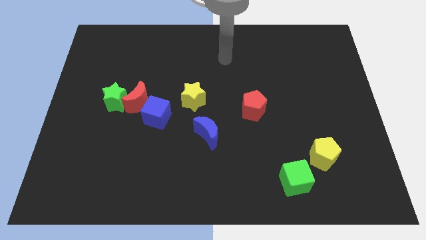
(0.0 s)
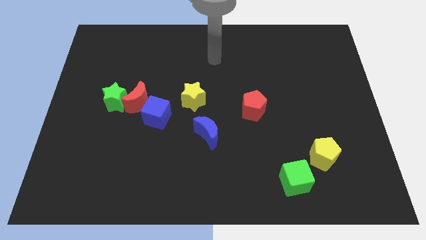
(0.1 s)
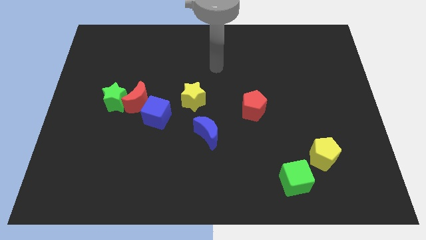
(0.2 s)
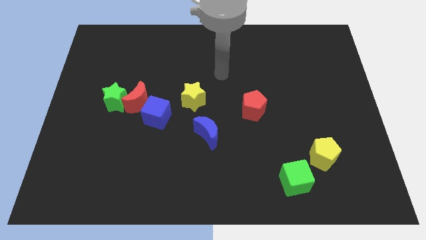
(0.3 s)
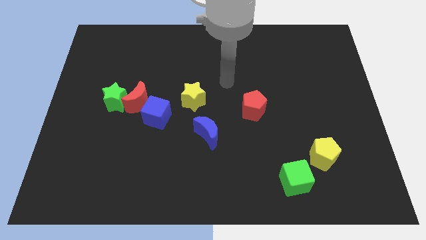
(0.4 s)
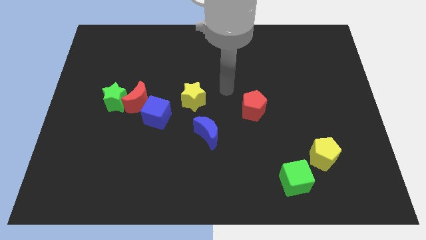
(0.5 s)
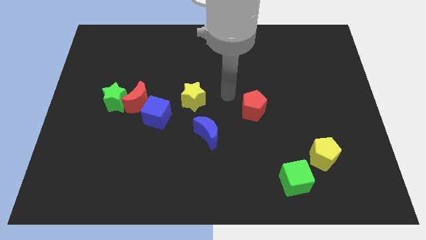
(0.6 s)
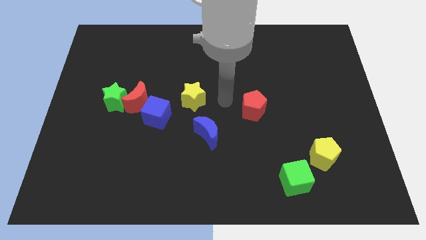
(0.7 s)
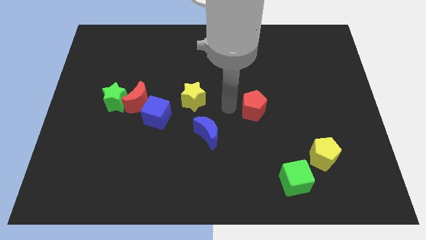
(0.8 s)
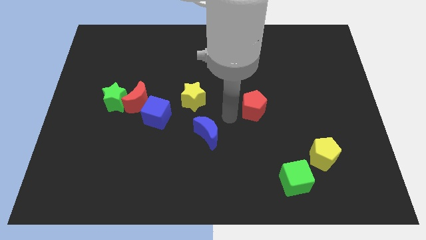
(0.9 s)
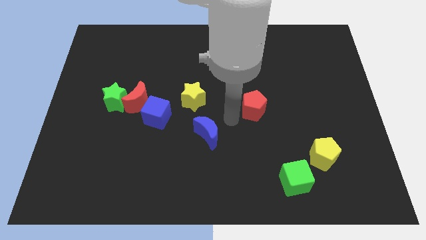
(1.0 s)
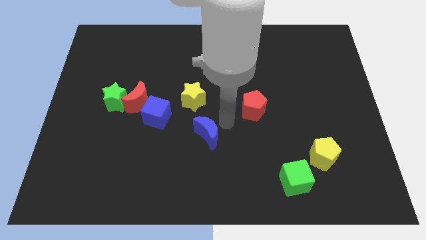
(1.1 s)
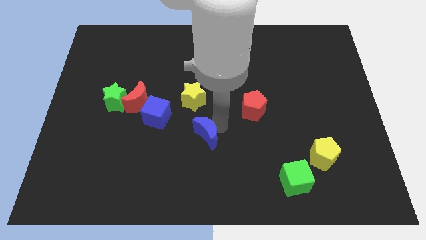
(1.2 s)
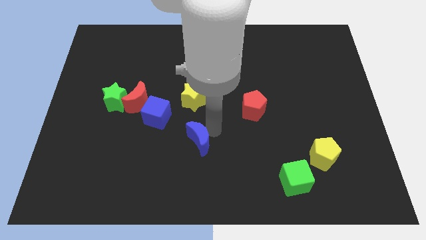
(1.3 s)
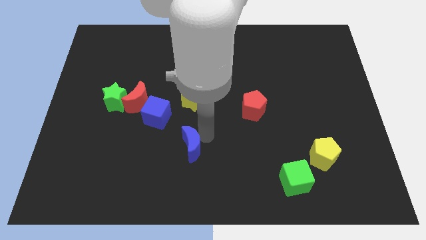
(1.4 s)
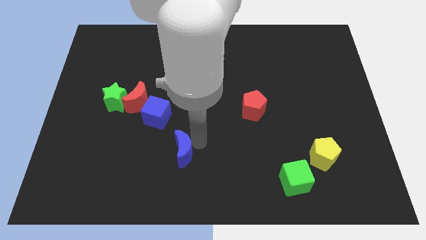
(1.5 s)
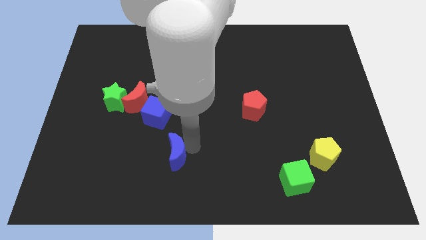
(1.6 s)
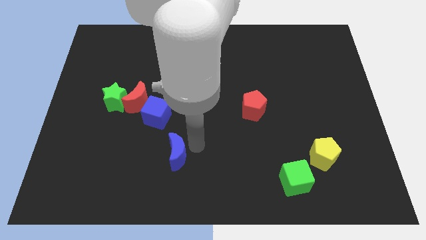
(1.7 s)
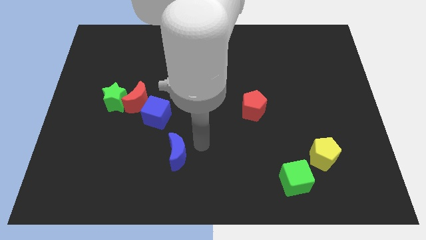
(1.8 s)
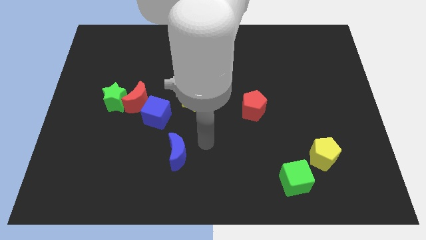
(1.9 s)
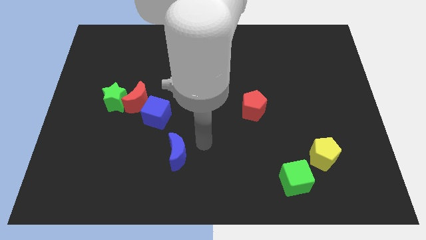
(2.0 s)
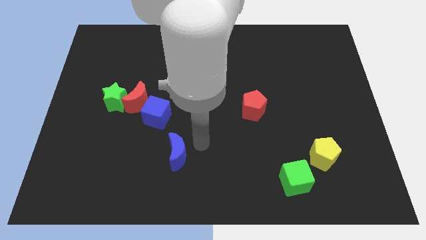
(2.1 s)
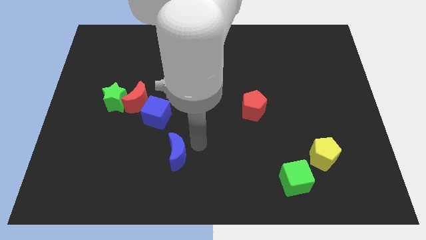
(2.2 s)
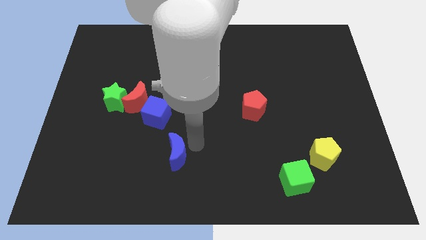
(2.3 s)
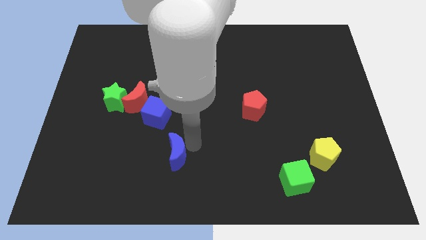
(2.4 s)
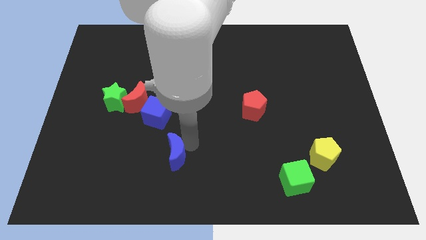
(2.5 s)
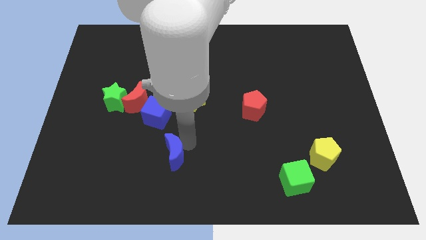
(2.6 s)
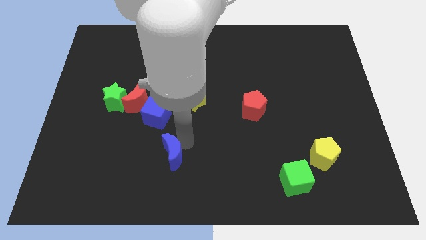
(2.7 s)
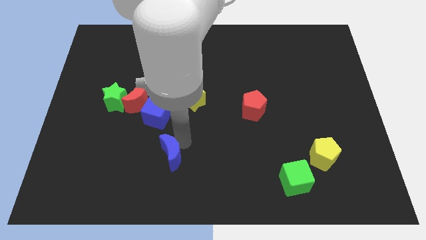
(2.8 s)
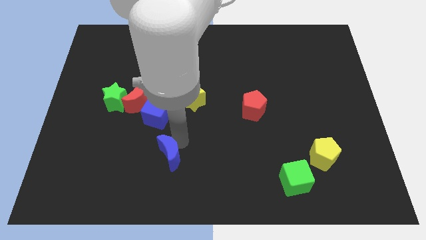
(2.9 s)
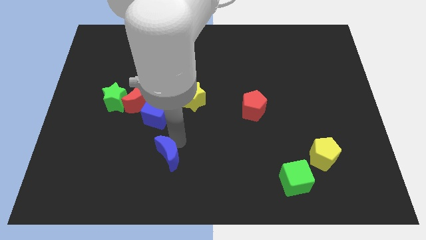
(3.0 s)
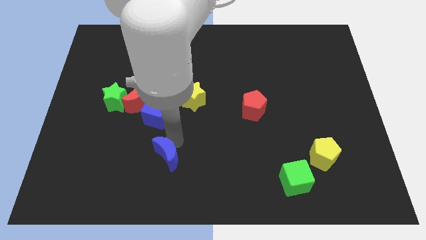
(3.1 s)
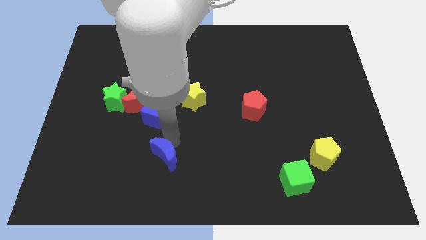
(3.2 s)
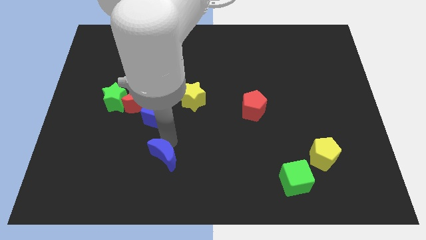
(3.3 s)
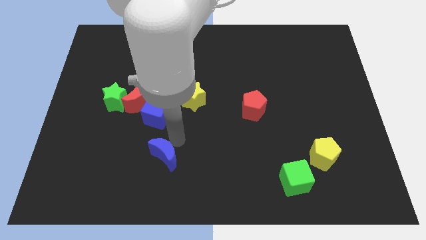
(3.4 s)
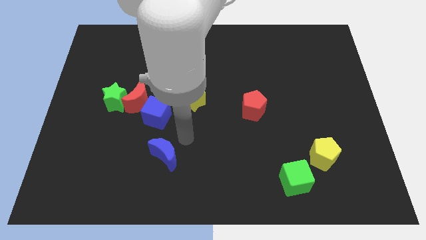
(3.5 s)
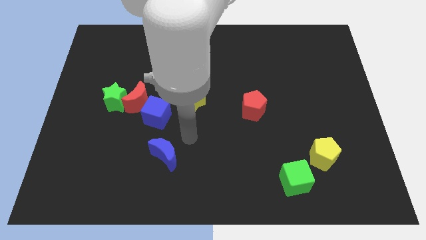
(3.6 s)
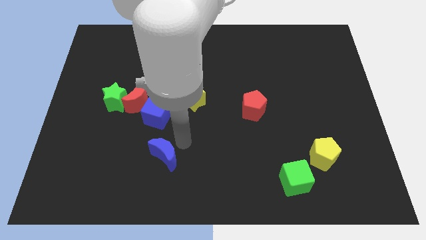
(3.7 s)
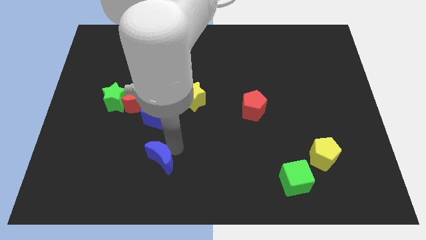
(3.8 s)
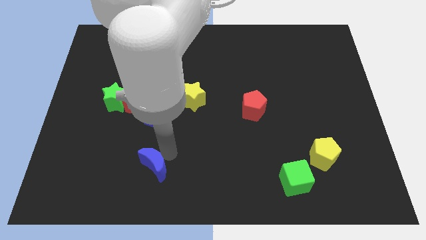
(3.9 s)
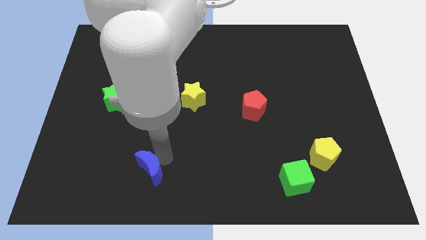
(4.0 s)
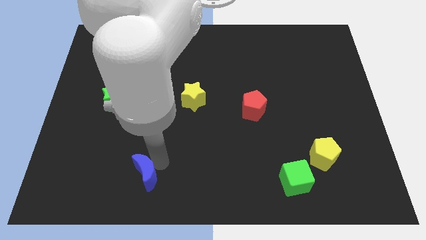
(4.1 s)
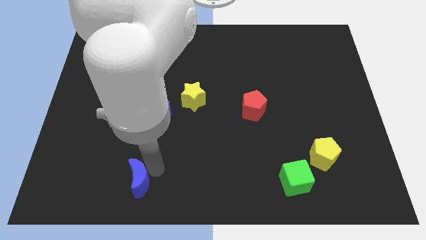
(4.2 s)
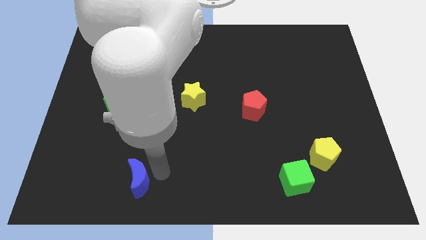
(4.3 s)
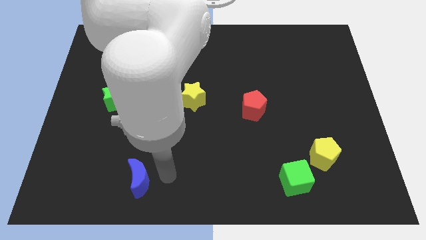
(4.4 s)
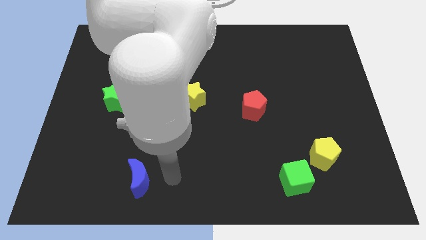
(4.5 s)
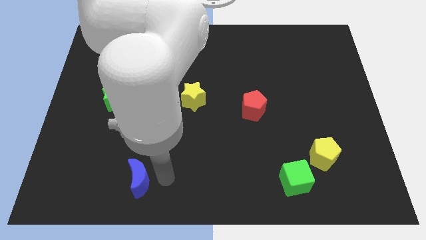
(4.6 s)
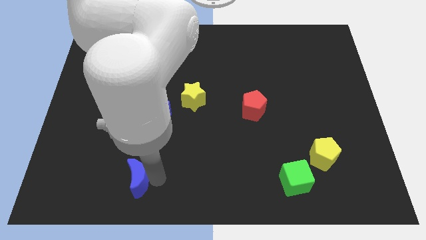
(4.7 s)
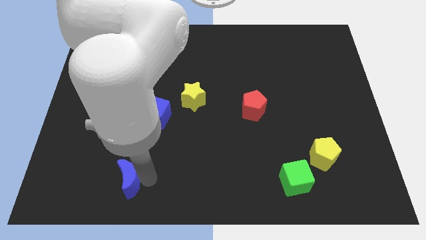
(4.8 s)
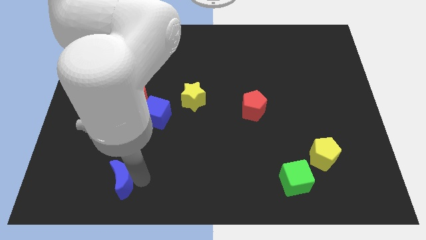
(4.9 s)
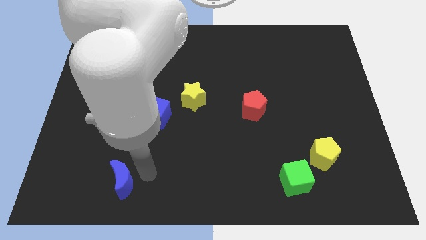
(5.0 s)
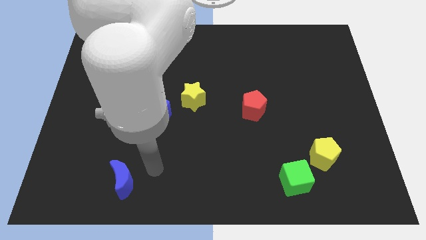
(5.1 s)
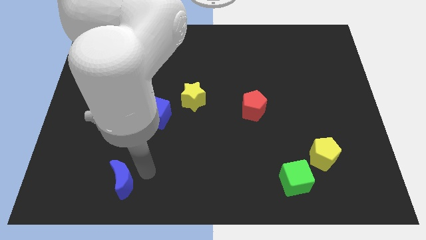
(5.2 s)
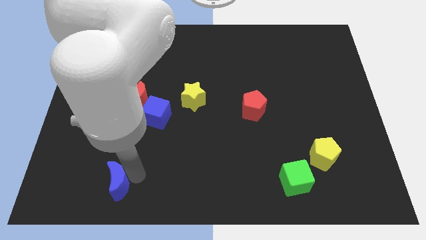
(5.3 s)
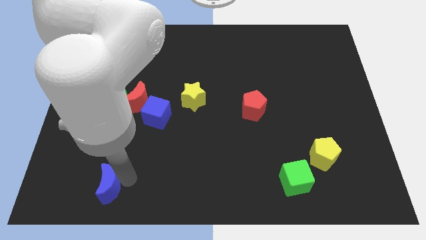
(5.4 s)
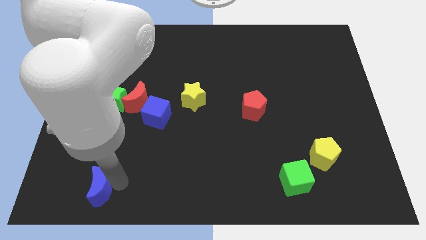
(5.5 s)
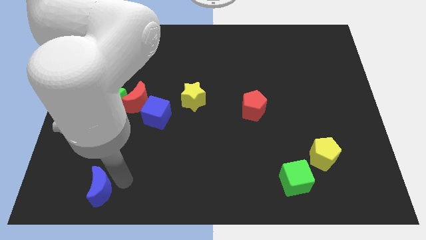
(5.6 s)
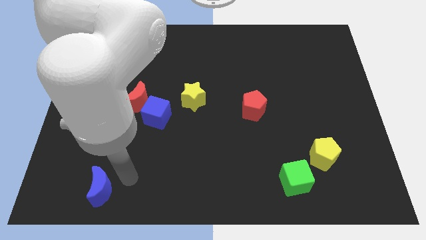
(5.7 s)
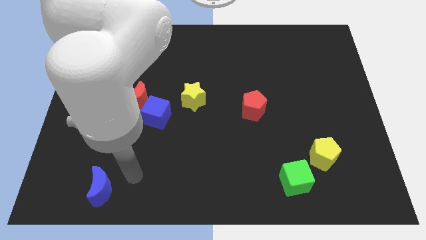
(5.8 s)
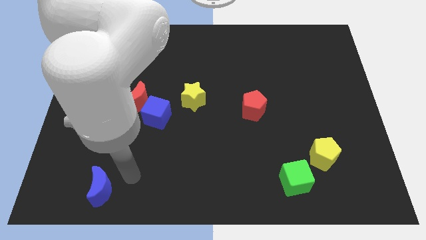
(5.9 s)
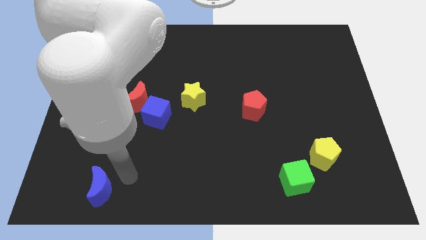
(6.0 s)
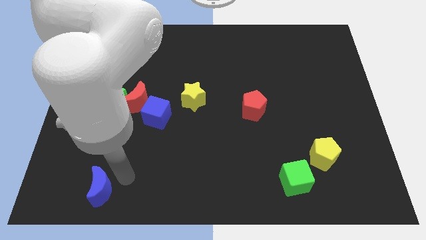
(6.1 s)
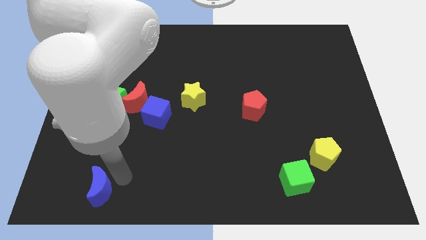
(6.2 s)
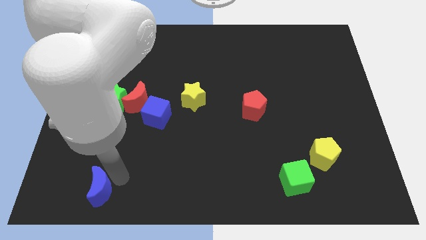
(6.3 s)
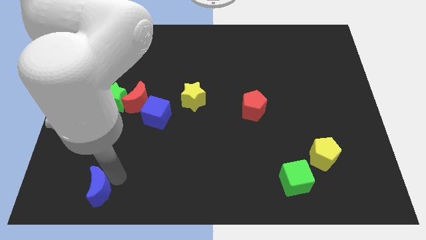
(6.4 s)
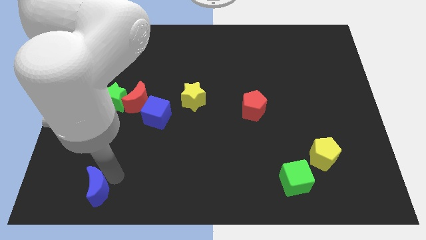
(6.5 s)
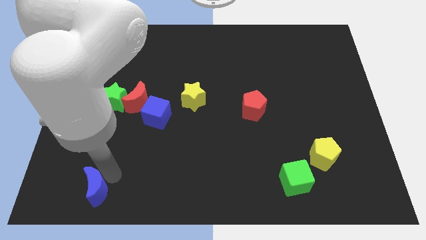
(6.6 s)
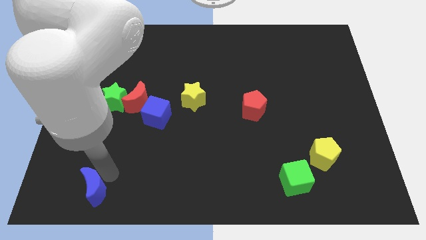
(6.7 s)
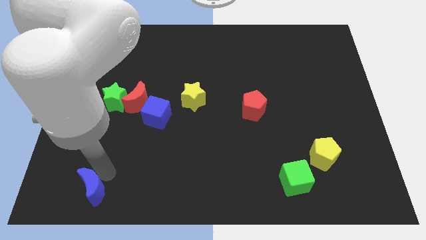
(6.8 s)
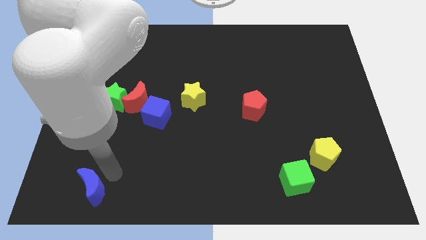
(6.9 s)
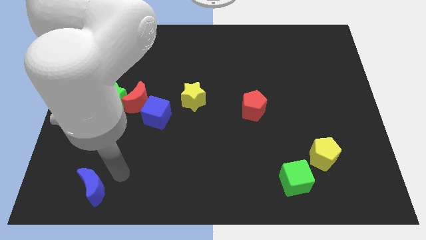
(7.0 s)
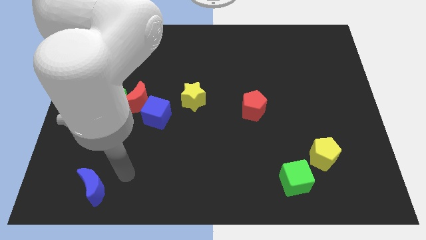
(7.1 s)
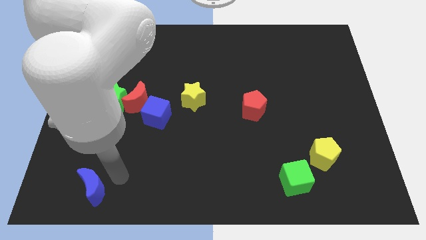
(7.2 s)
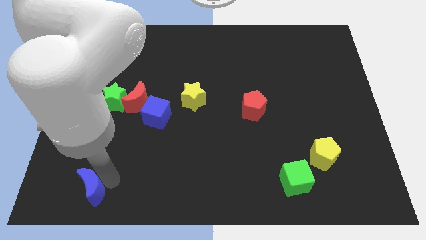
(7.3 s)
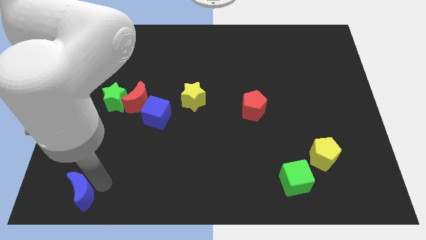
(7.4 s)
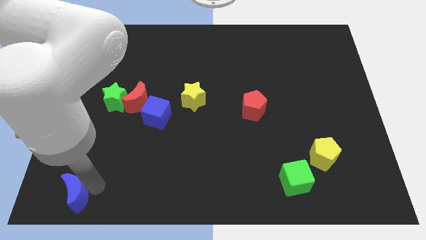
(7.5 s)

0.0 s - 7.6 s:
move the blue moon to the bottom left

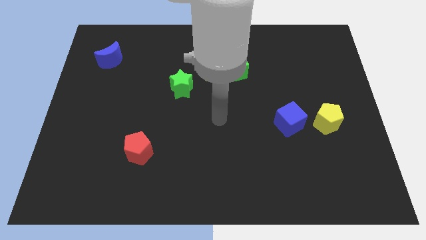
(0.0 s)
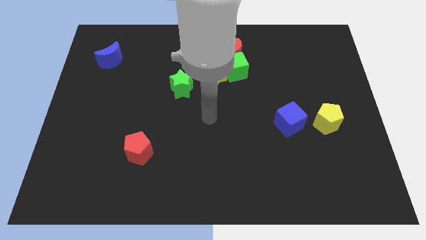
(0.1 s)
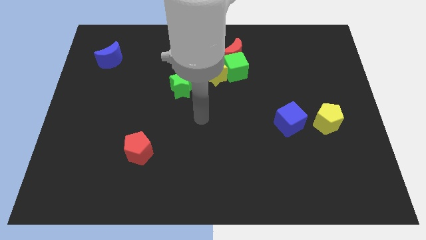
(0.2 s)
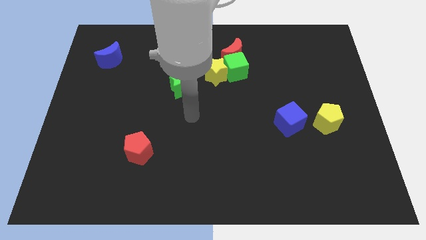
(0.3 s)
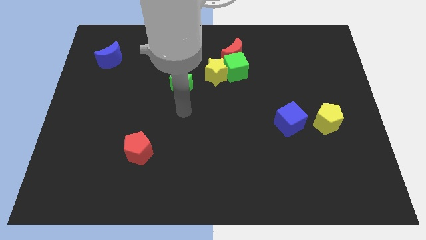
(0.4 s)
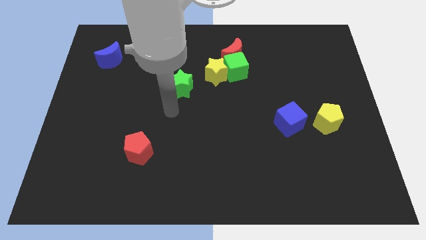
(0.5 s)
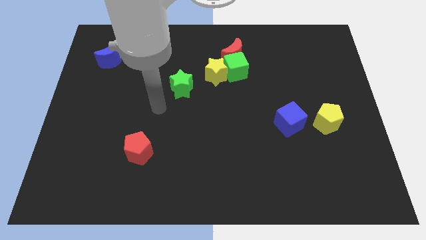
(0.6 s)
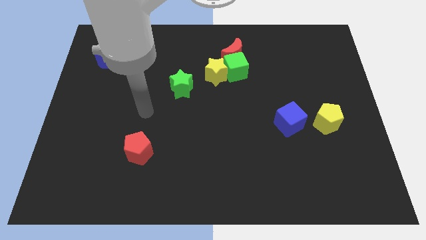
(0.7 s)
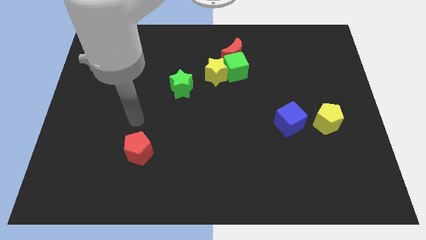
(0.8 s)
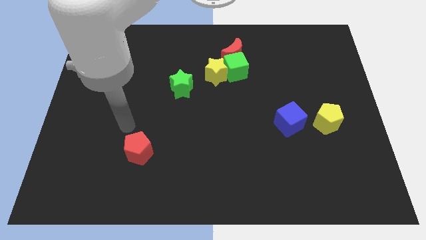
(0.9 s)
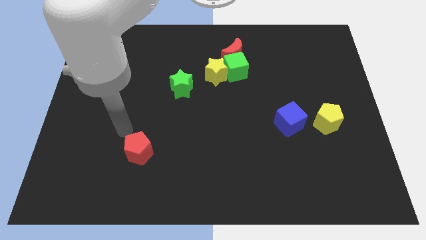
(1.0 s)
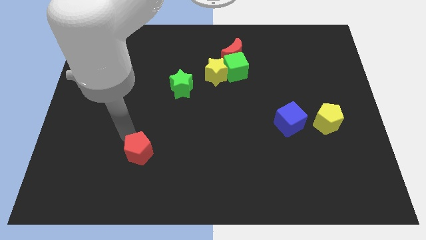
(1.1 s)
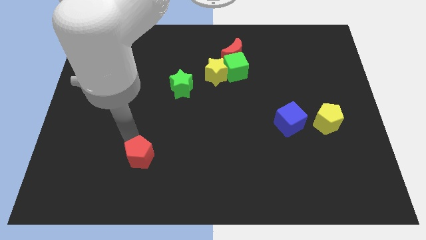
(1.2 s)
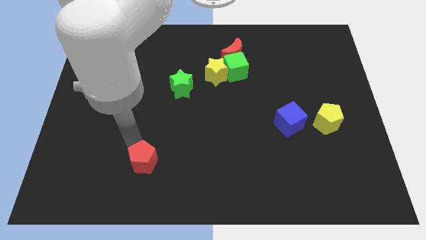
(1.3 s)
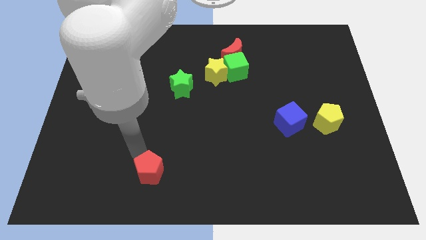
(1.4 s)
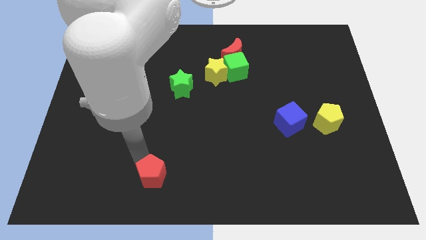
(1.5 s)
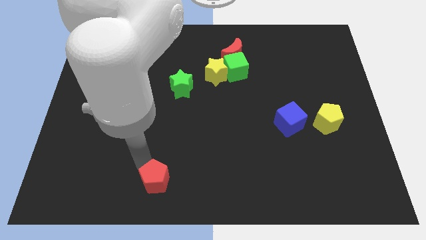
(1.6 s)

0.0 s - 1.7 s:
move the red pentagon to the bottom side
